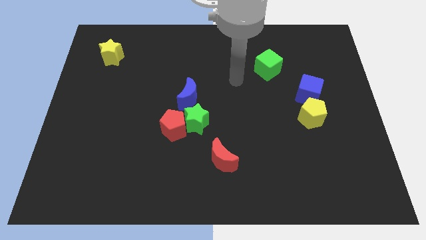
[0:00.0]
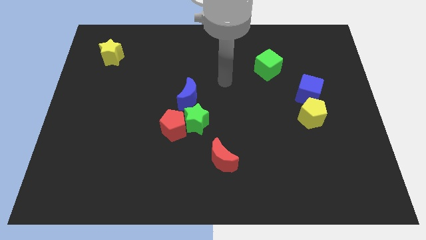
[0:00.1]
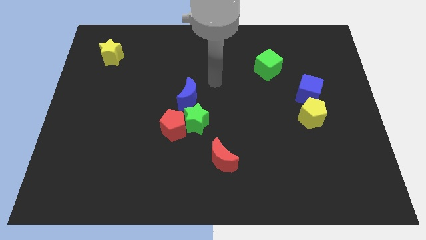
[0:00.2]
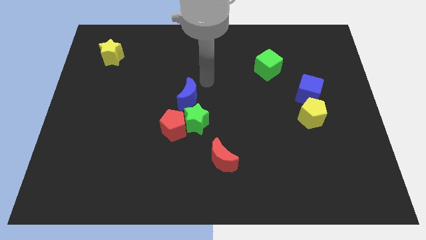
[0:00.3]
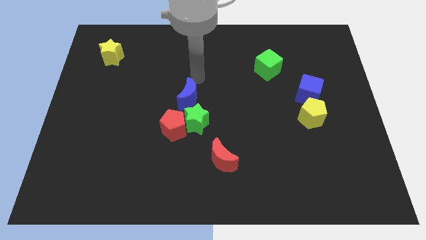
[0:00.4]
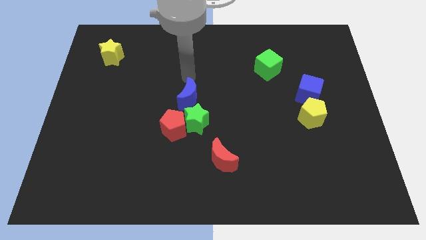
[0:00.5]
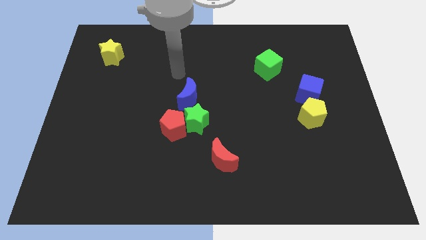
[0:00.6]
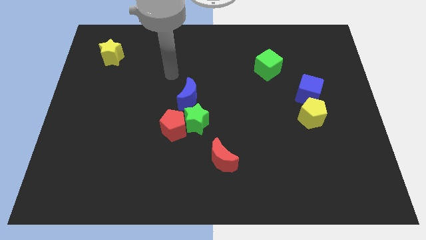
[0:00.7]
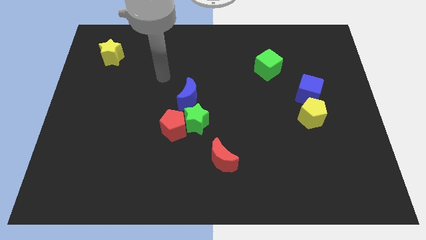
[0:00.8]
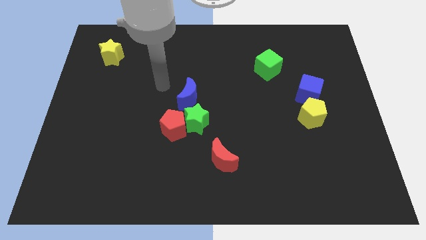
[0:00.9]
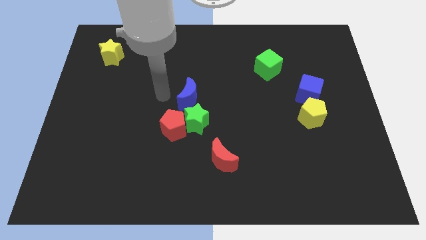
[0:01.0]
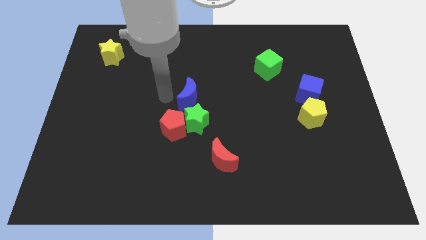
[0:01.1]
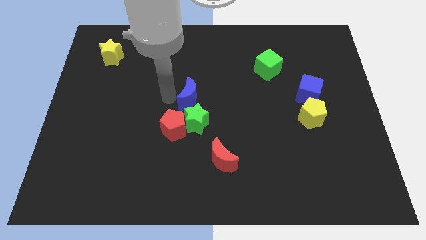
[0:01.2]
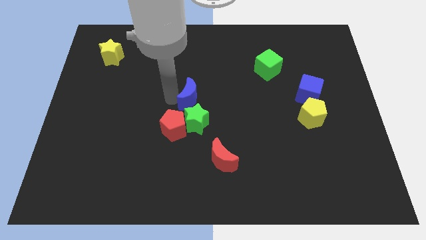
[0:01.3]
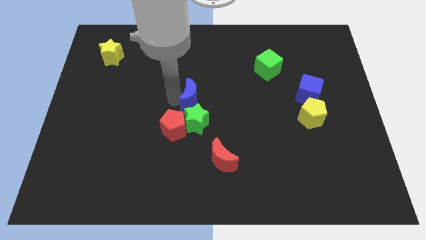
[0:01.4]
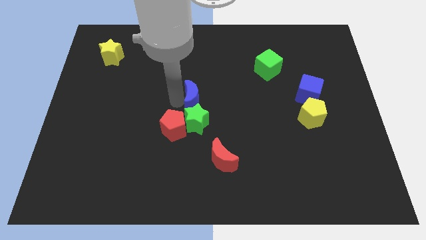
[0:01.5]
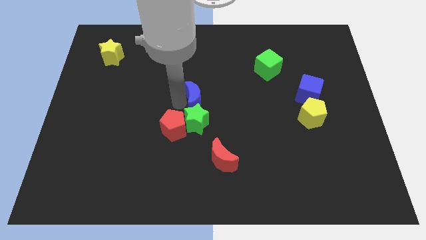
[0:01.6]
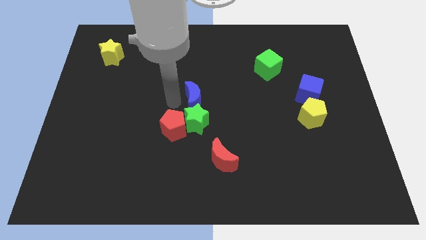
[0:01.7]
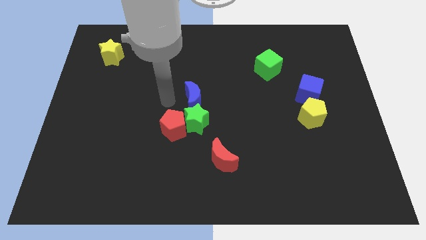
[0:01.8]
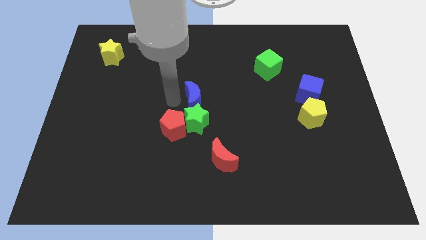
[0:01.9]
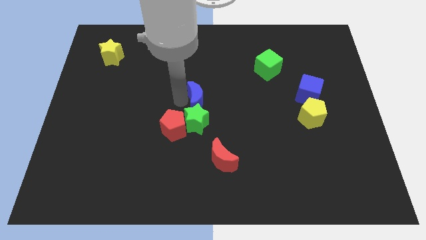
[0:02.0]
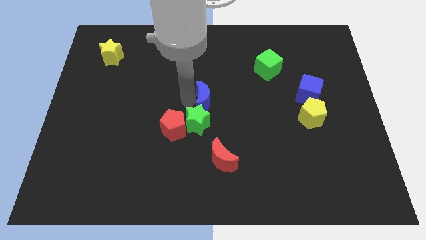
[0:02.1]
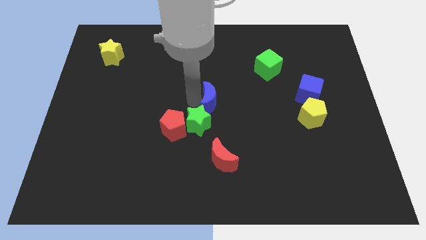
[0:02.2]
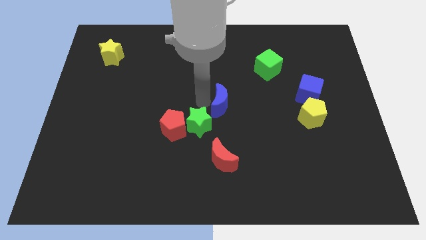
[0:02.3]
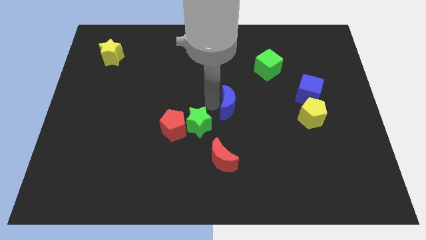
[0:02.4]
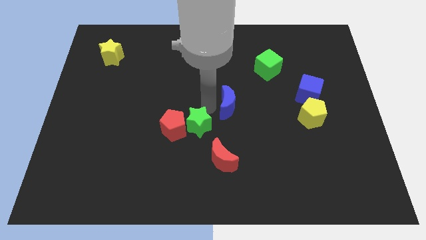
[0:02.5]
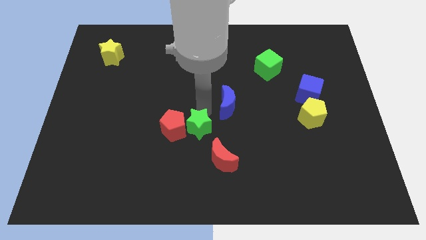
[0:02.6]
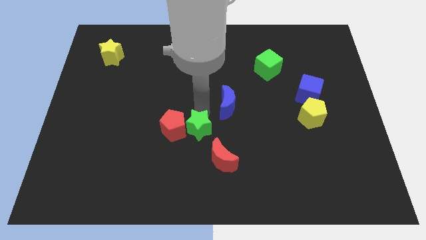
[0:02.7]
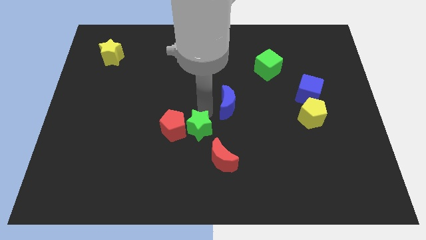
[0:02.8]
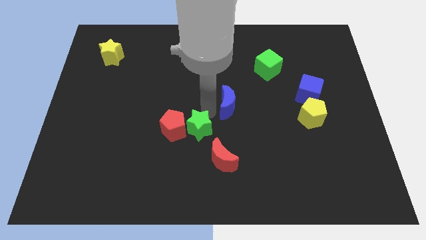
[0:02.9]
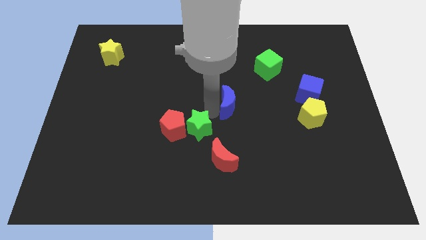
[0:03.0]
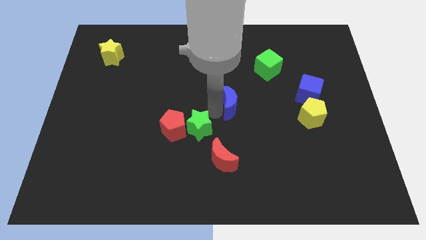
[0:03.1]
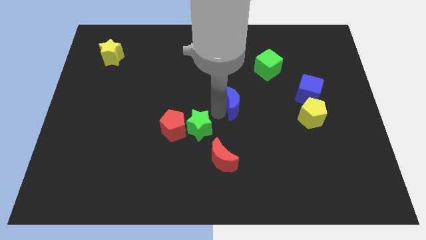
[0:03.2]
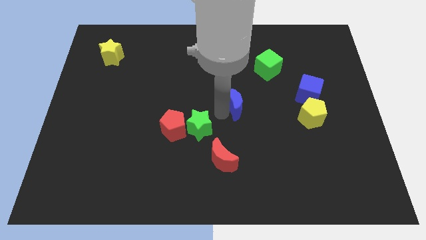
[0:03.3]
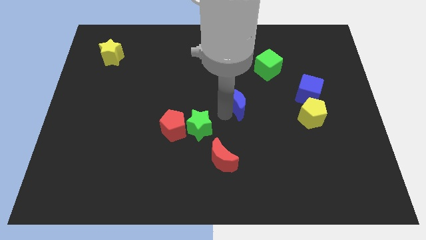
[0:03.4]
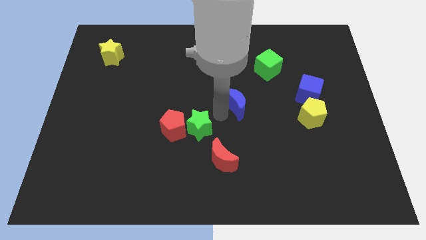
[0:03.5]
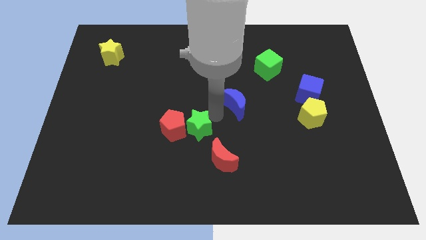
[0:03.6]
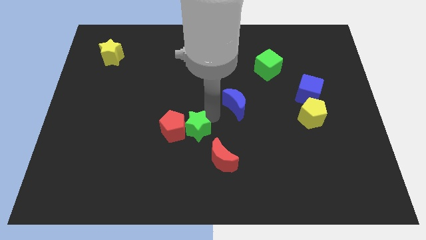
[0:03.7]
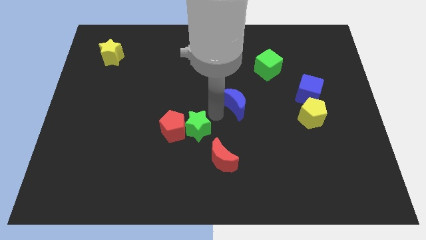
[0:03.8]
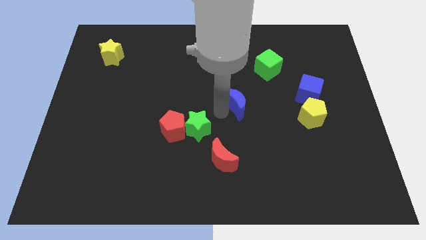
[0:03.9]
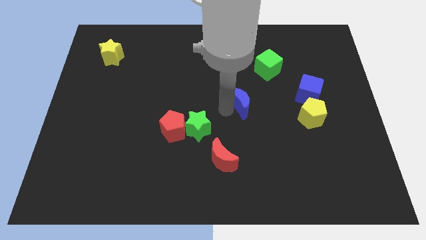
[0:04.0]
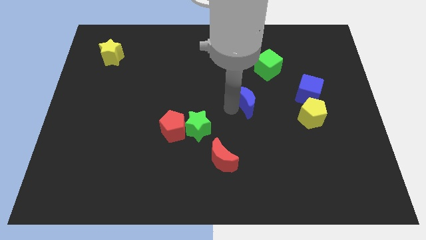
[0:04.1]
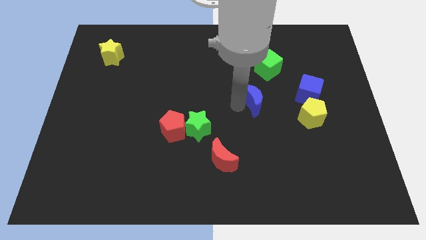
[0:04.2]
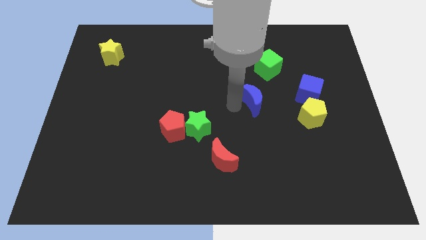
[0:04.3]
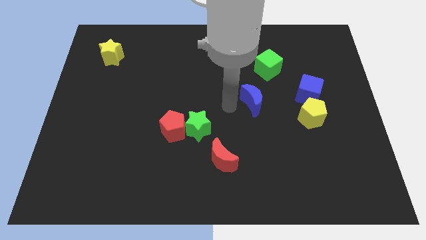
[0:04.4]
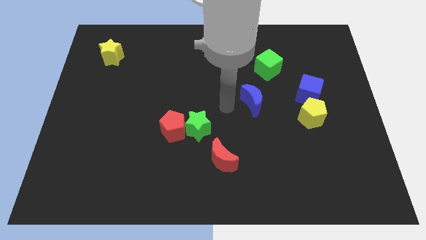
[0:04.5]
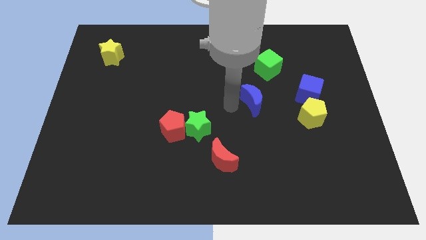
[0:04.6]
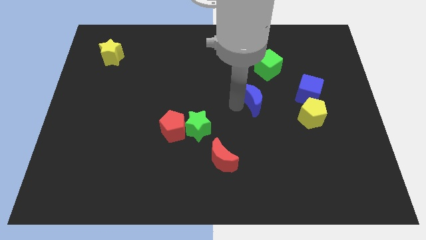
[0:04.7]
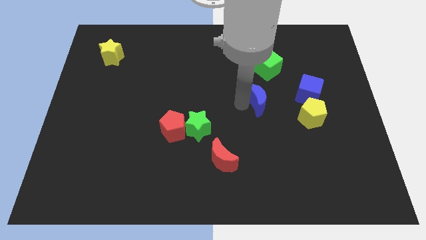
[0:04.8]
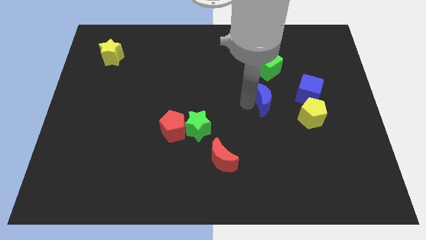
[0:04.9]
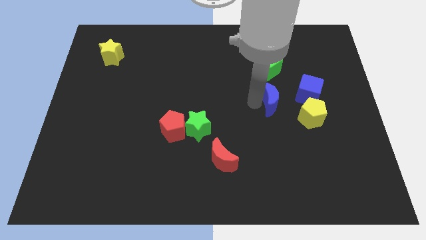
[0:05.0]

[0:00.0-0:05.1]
move the blue moon to the top left of the yellow pentagon

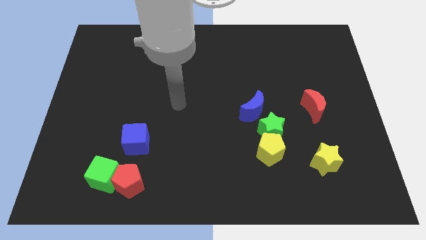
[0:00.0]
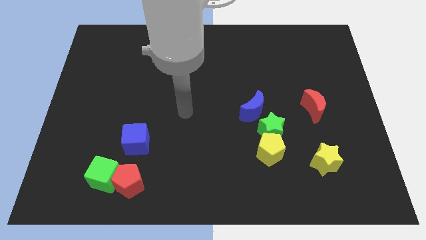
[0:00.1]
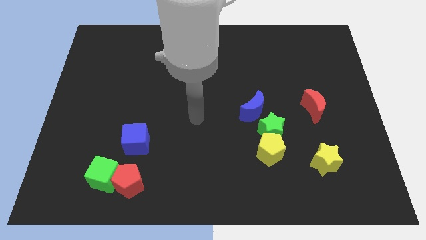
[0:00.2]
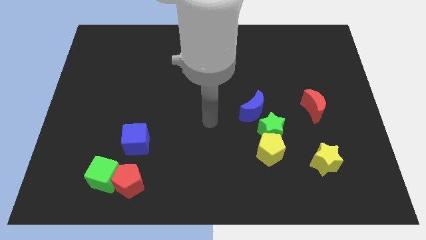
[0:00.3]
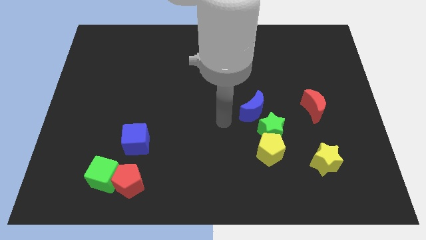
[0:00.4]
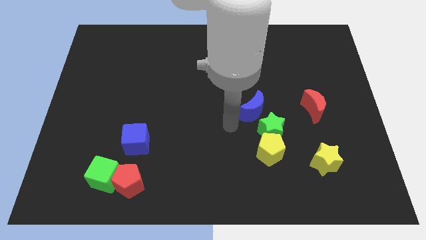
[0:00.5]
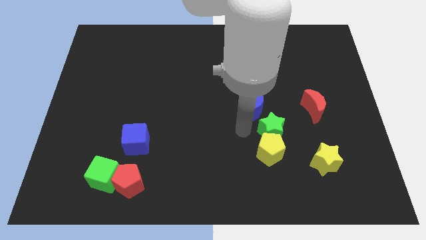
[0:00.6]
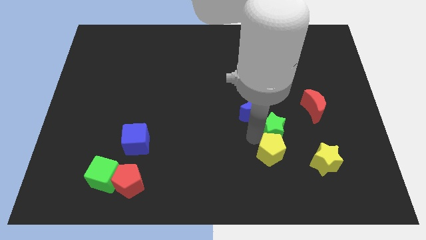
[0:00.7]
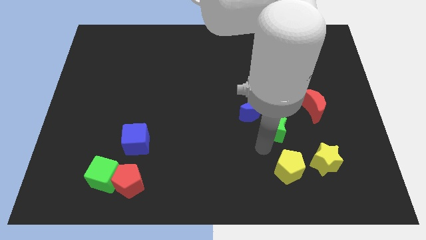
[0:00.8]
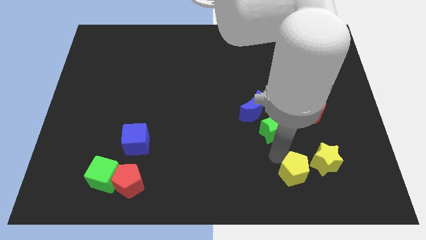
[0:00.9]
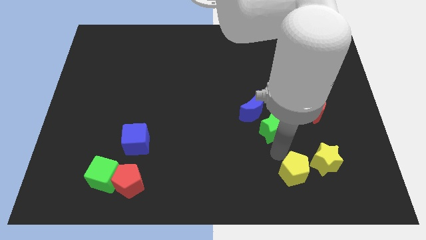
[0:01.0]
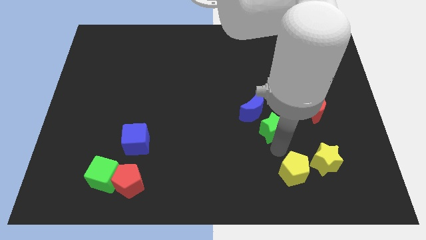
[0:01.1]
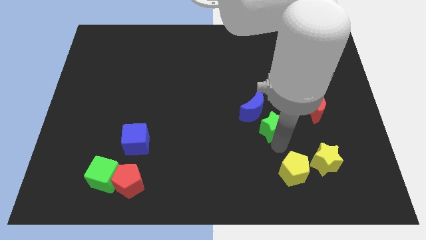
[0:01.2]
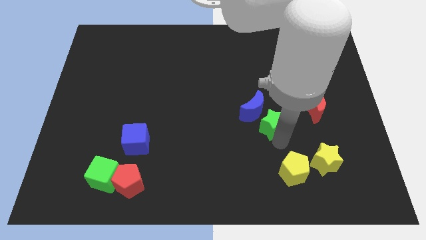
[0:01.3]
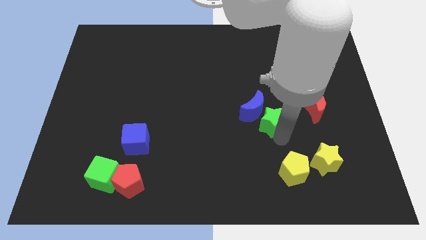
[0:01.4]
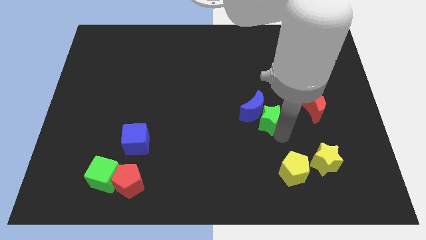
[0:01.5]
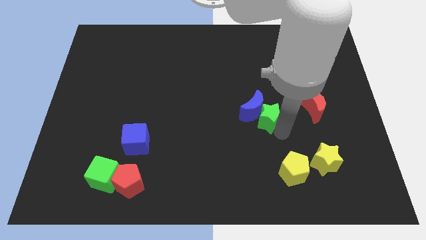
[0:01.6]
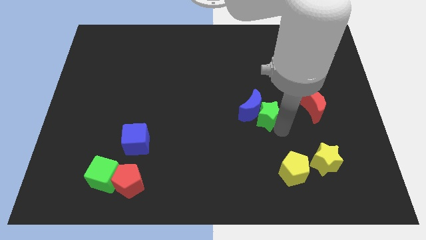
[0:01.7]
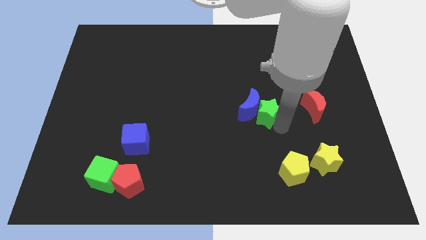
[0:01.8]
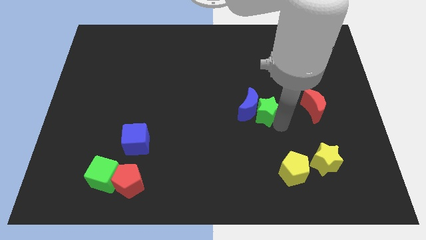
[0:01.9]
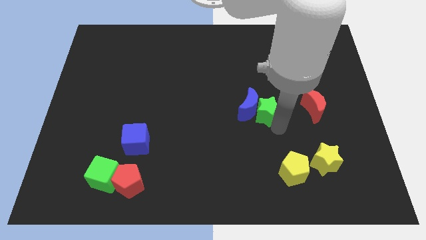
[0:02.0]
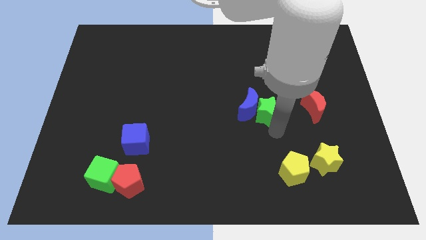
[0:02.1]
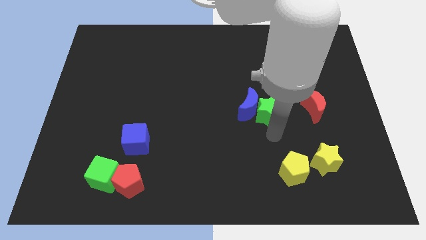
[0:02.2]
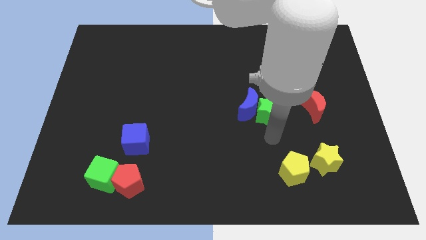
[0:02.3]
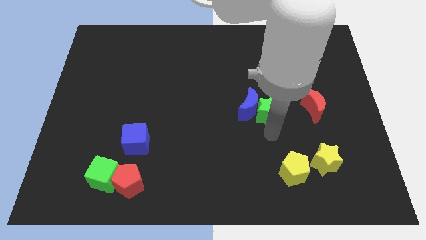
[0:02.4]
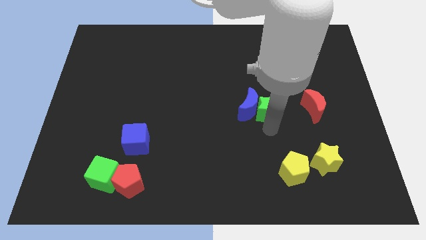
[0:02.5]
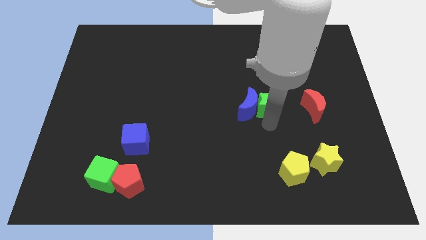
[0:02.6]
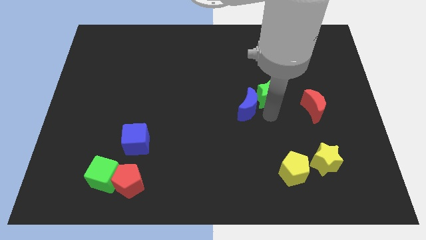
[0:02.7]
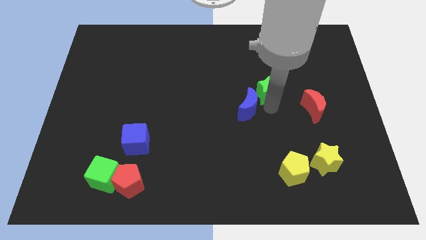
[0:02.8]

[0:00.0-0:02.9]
push the green star to the top side of the blue moon
